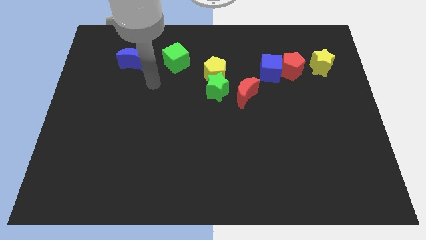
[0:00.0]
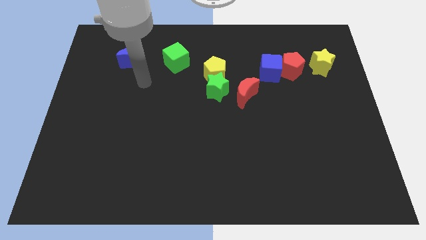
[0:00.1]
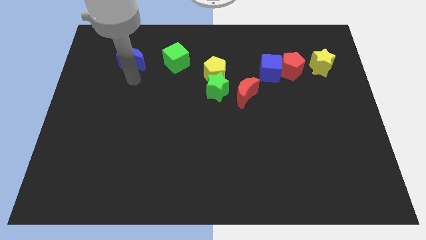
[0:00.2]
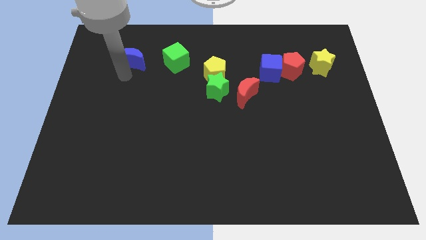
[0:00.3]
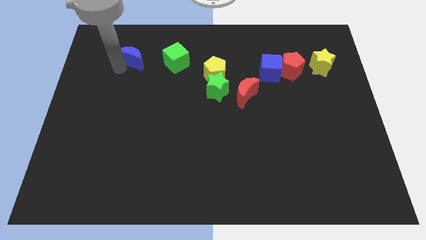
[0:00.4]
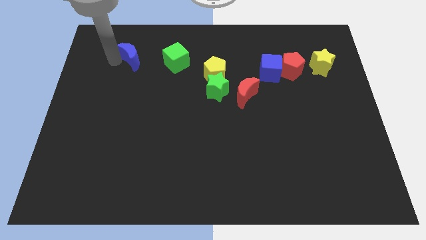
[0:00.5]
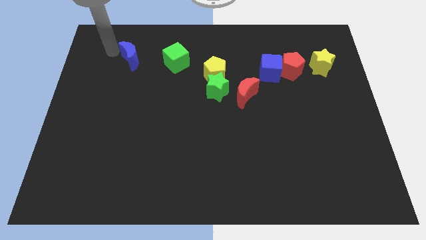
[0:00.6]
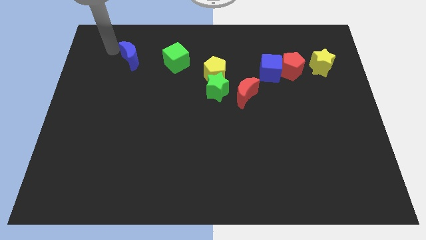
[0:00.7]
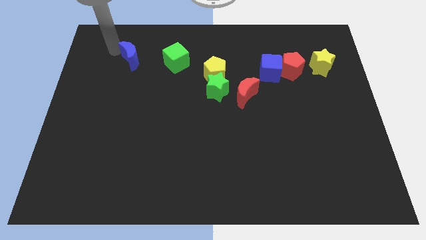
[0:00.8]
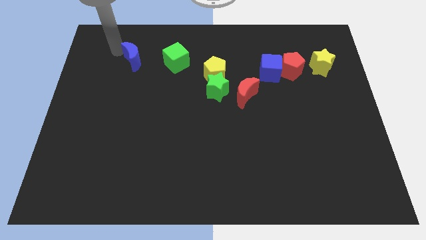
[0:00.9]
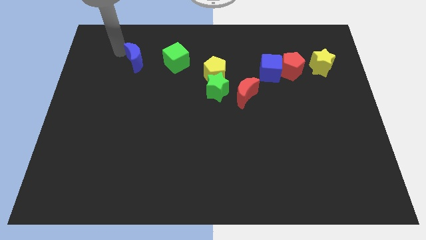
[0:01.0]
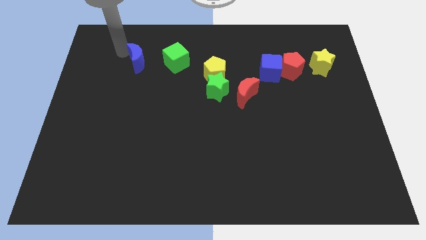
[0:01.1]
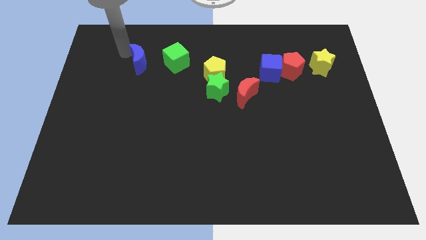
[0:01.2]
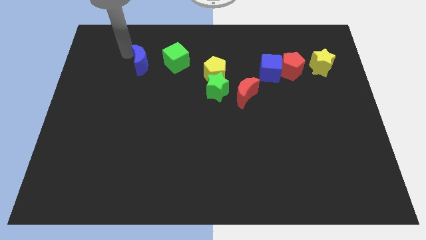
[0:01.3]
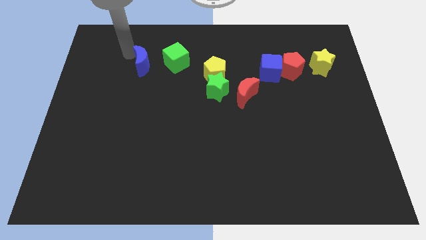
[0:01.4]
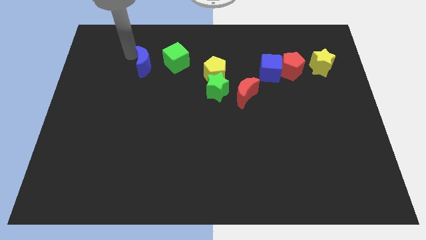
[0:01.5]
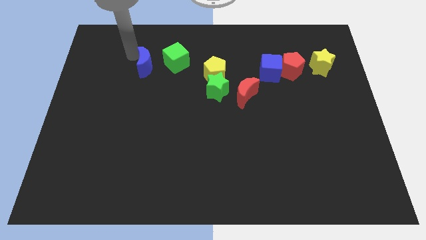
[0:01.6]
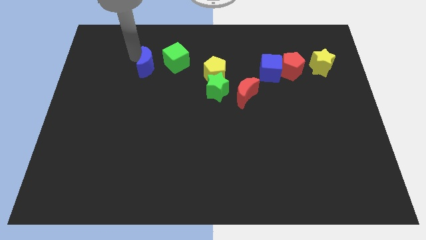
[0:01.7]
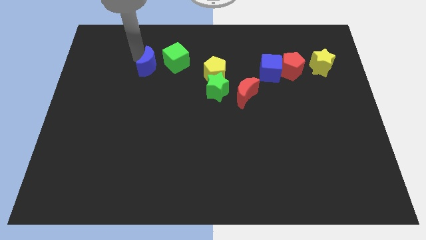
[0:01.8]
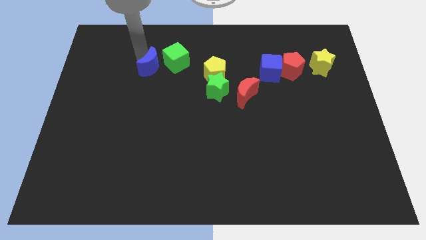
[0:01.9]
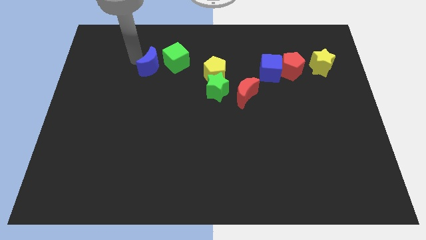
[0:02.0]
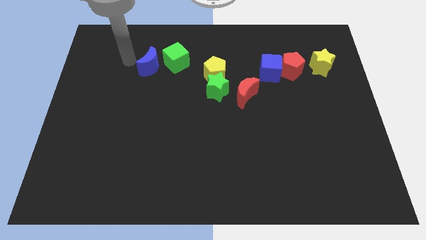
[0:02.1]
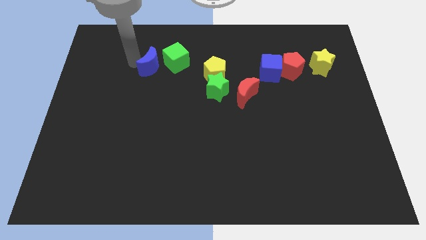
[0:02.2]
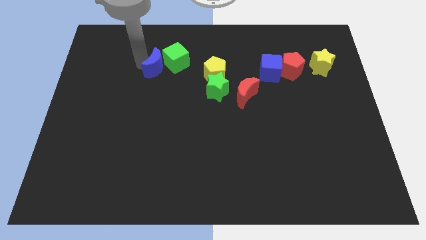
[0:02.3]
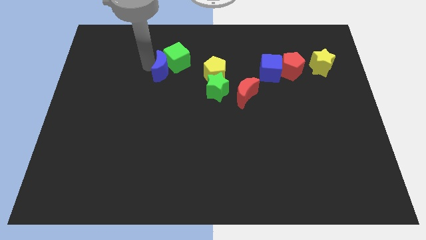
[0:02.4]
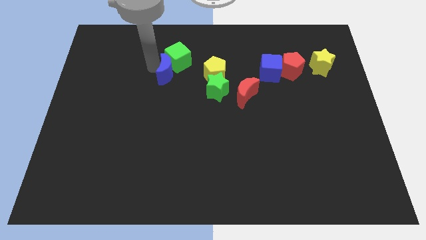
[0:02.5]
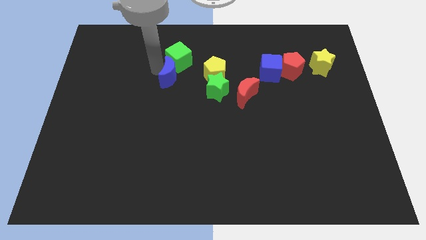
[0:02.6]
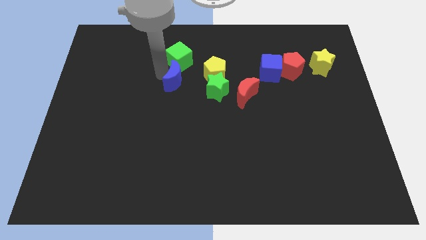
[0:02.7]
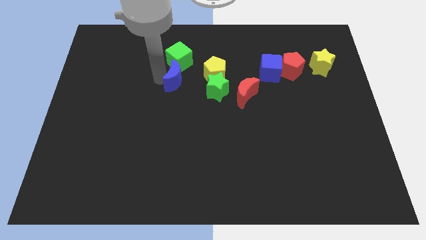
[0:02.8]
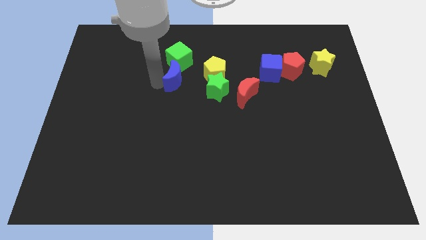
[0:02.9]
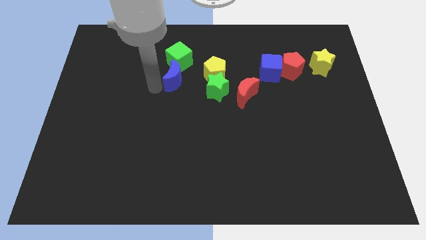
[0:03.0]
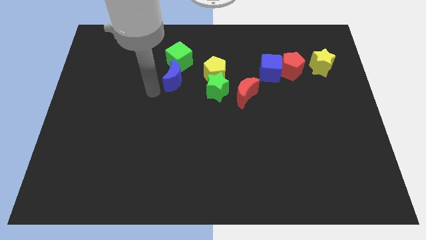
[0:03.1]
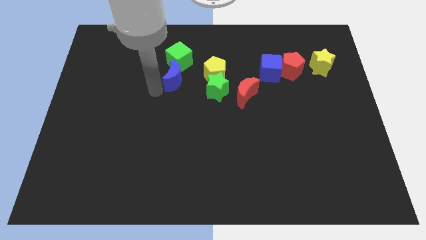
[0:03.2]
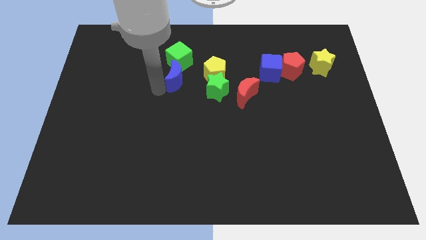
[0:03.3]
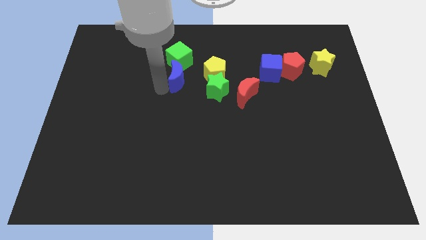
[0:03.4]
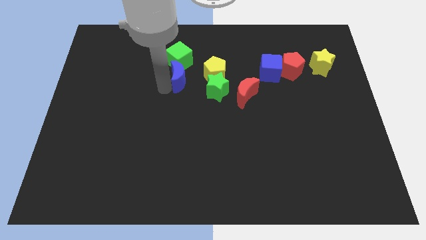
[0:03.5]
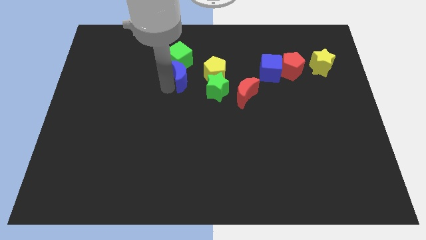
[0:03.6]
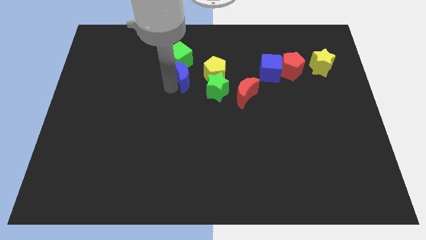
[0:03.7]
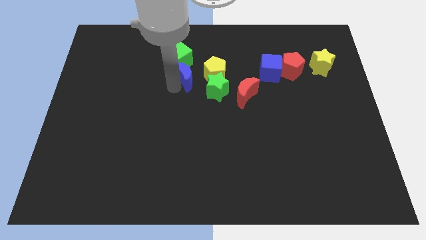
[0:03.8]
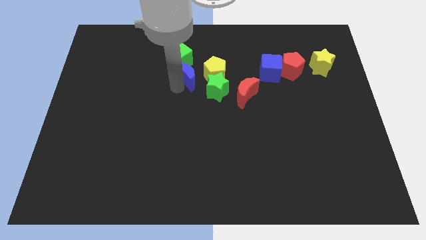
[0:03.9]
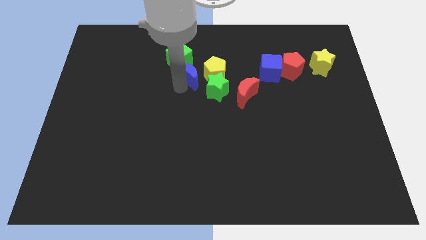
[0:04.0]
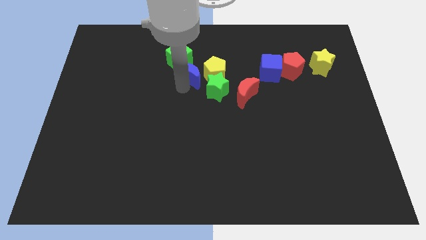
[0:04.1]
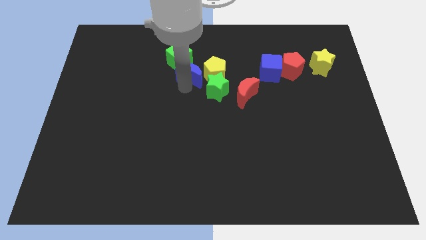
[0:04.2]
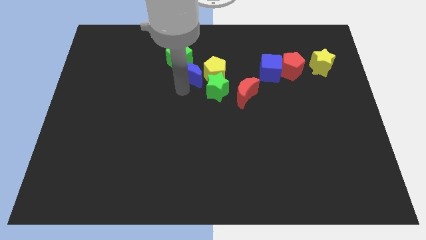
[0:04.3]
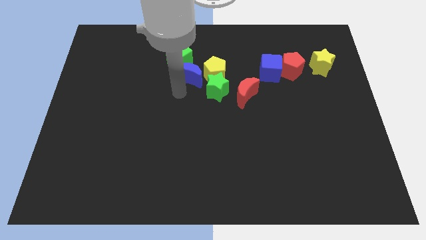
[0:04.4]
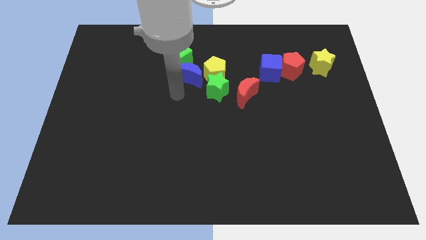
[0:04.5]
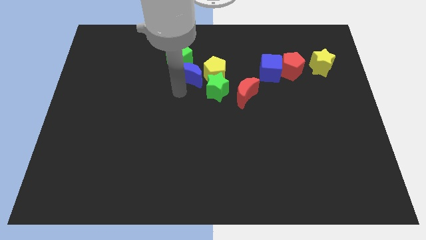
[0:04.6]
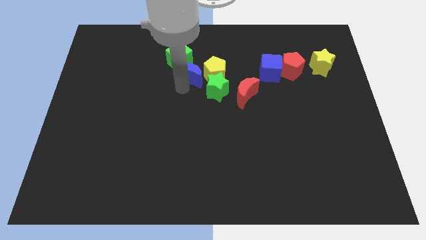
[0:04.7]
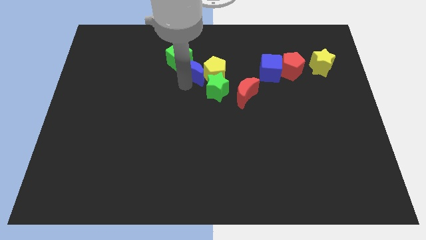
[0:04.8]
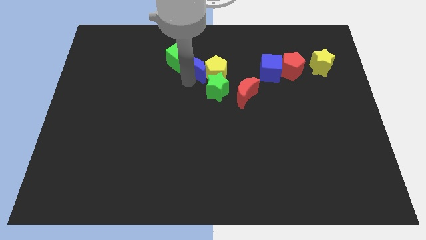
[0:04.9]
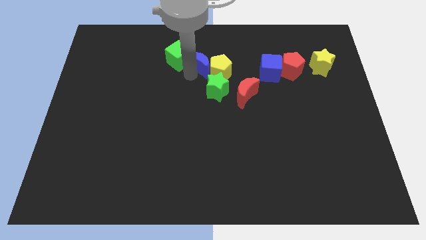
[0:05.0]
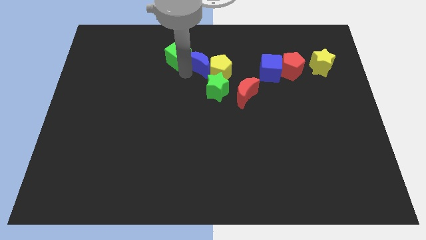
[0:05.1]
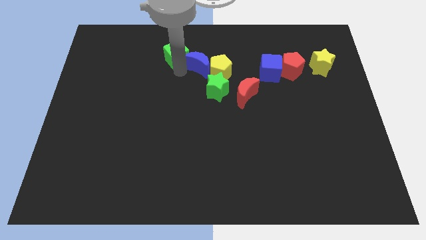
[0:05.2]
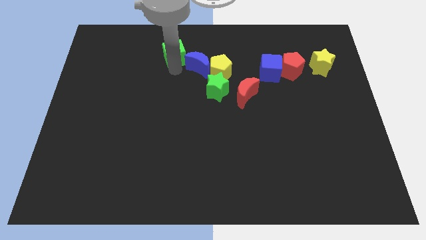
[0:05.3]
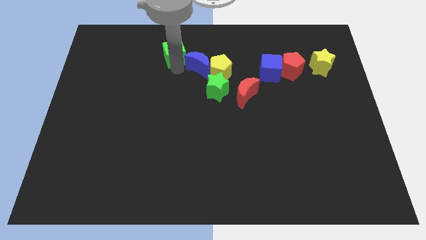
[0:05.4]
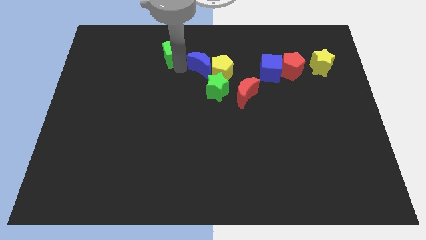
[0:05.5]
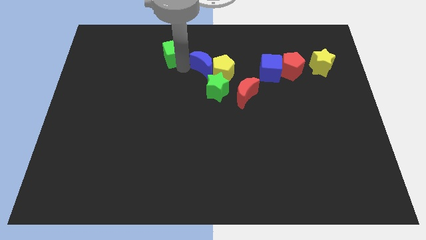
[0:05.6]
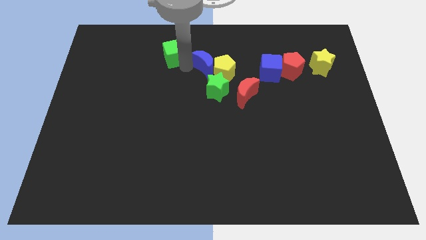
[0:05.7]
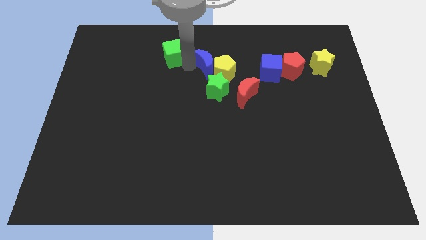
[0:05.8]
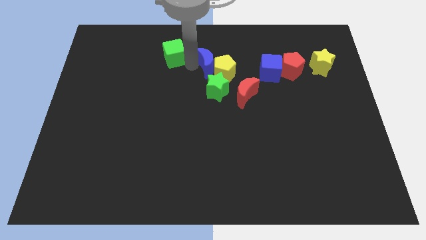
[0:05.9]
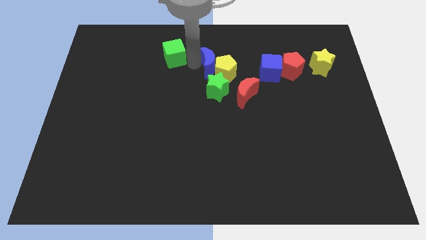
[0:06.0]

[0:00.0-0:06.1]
slide the blue moon to the right

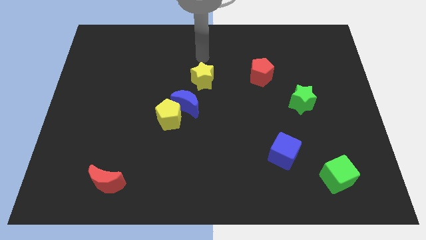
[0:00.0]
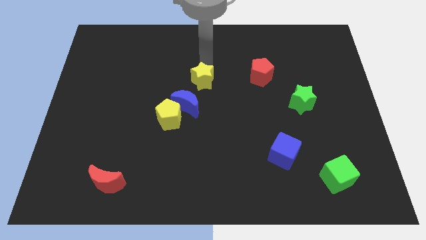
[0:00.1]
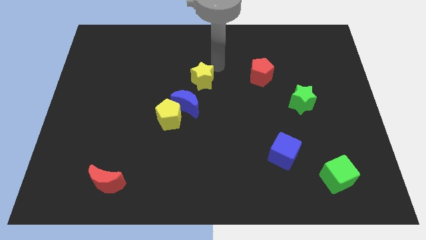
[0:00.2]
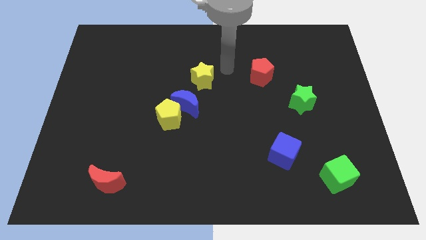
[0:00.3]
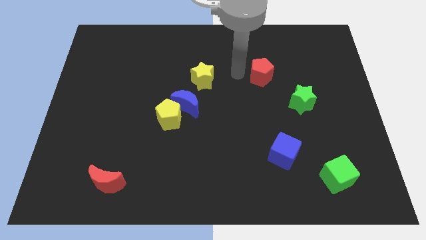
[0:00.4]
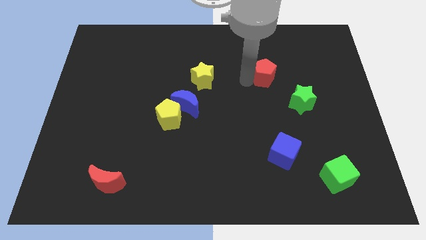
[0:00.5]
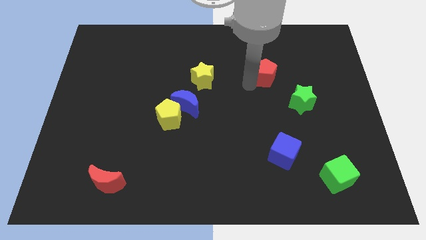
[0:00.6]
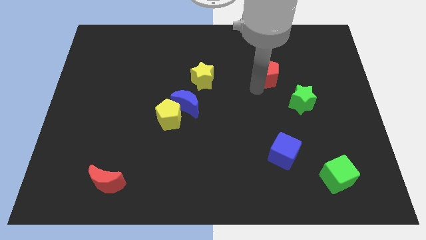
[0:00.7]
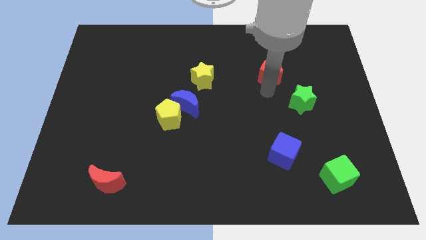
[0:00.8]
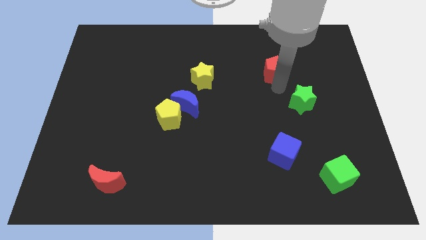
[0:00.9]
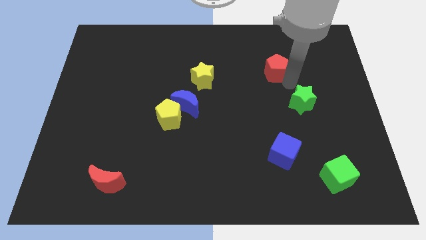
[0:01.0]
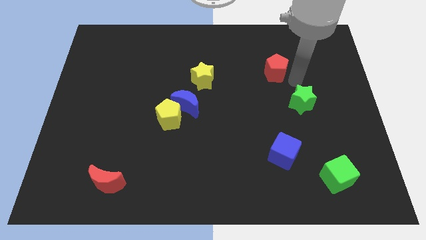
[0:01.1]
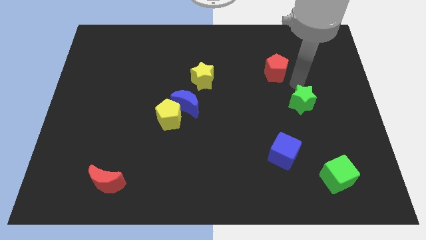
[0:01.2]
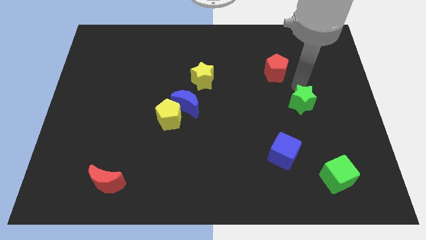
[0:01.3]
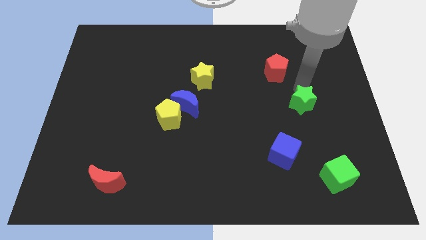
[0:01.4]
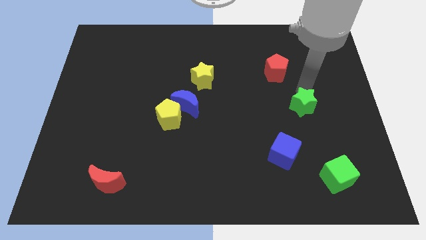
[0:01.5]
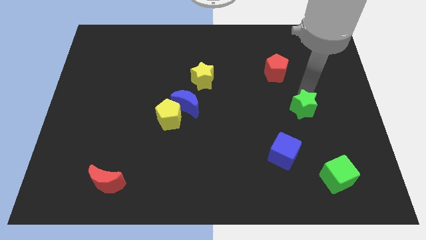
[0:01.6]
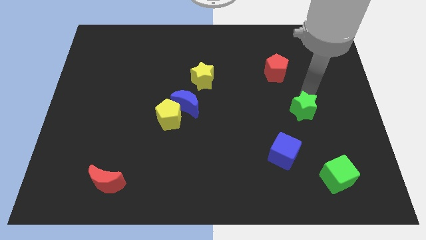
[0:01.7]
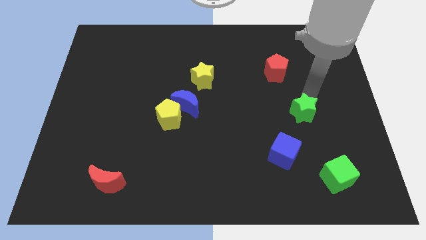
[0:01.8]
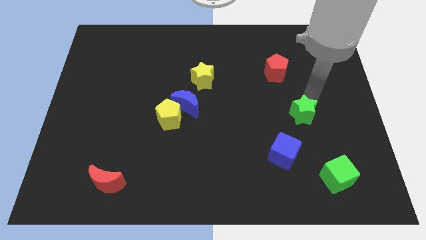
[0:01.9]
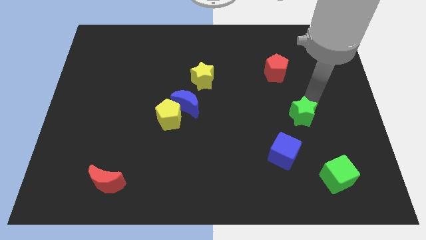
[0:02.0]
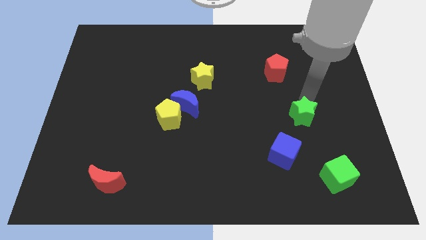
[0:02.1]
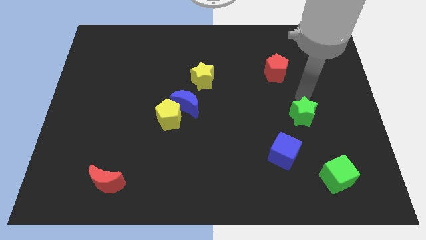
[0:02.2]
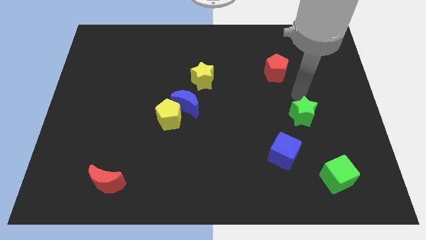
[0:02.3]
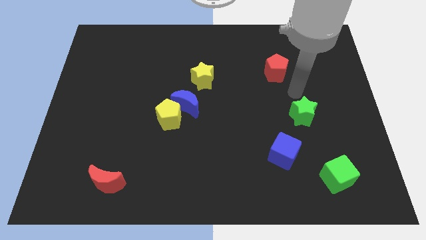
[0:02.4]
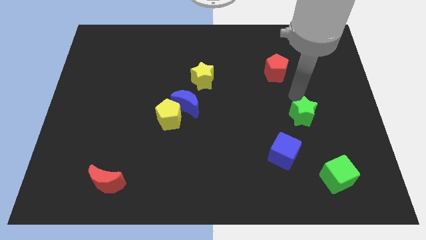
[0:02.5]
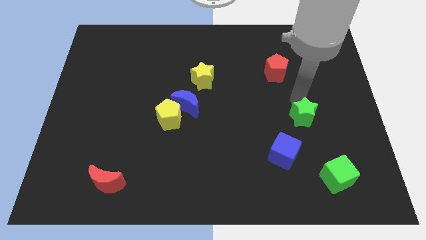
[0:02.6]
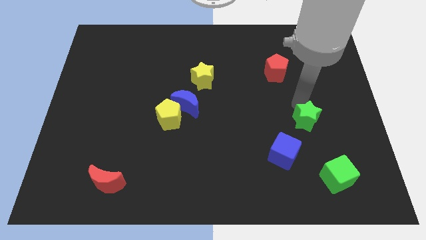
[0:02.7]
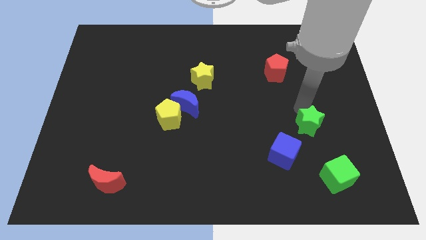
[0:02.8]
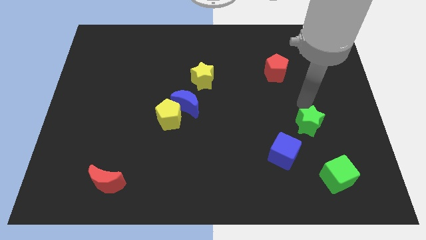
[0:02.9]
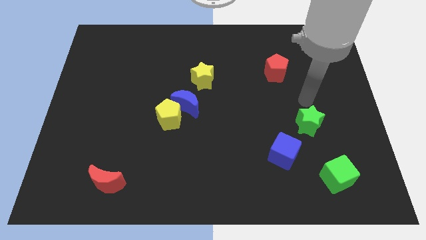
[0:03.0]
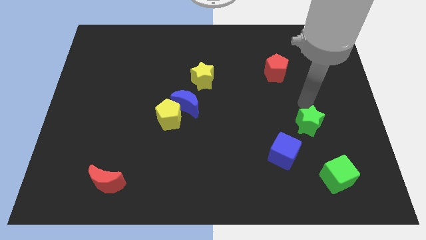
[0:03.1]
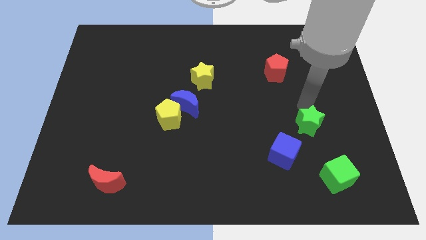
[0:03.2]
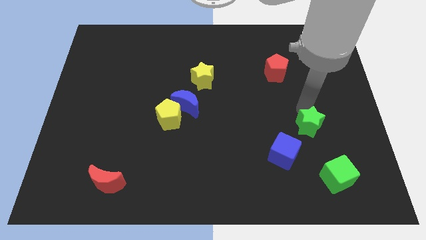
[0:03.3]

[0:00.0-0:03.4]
slightly push the green star down
